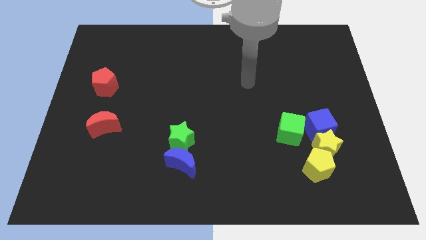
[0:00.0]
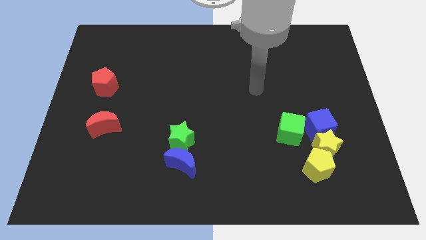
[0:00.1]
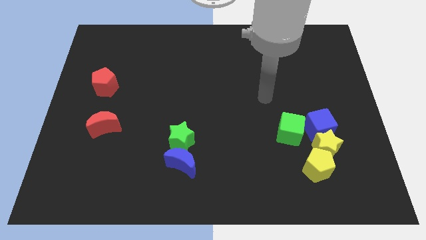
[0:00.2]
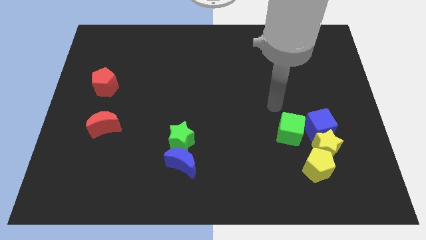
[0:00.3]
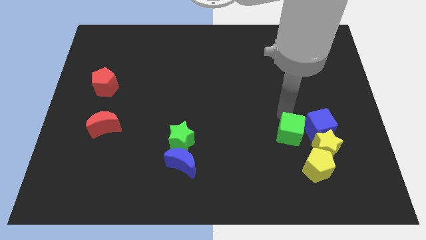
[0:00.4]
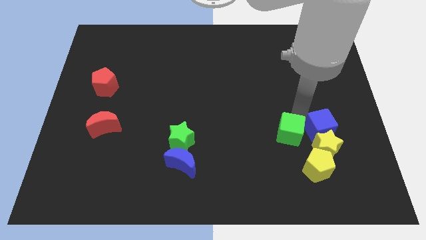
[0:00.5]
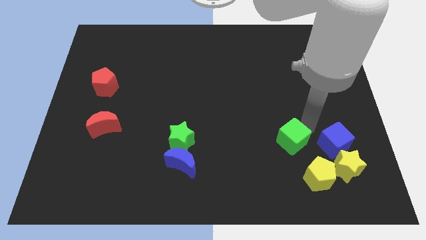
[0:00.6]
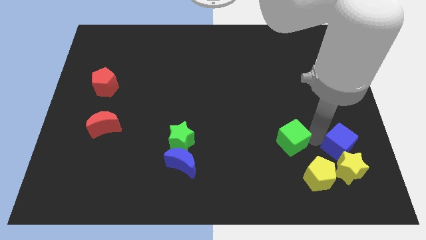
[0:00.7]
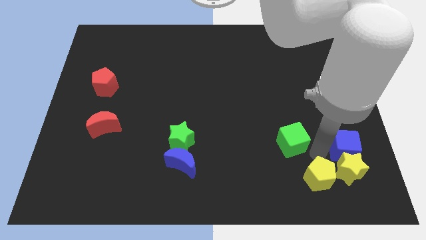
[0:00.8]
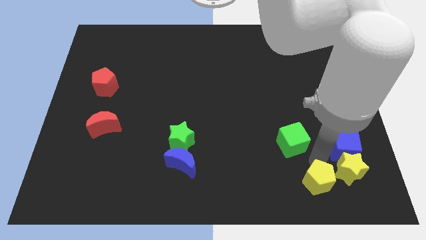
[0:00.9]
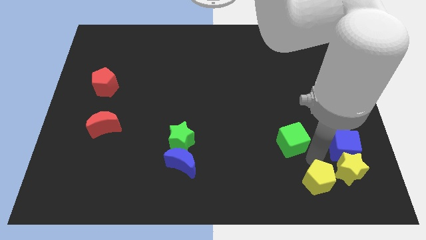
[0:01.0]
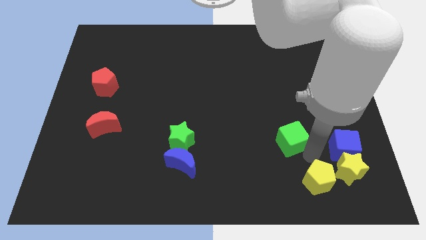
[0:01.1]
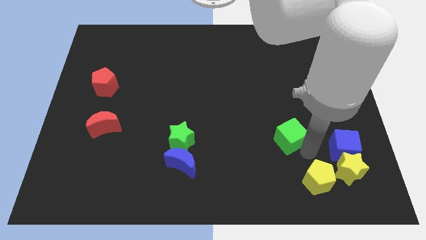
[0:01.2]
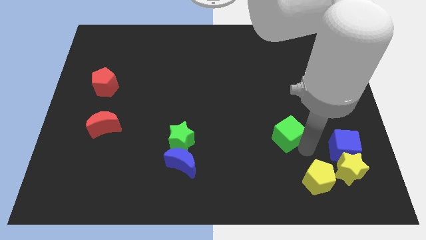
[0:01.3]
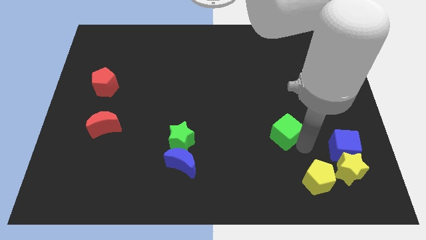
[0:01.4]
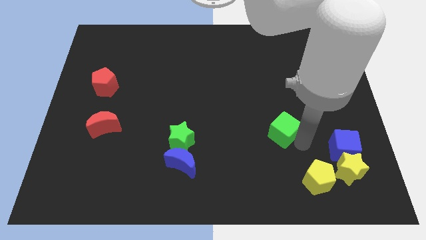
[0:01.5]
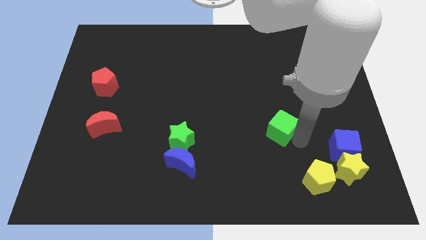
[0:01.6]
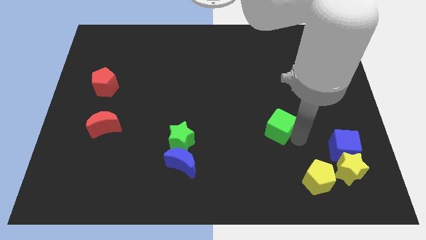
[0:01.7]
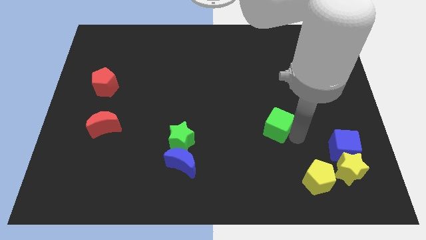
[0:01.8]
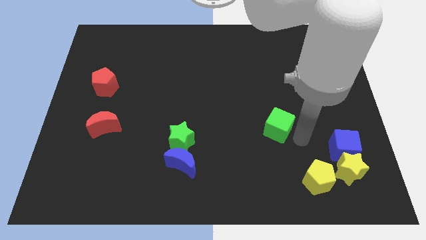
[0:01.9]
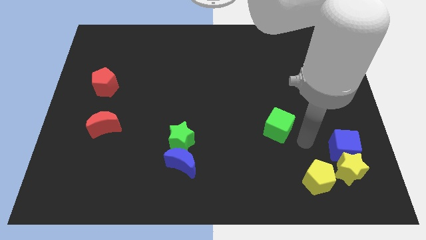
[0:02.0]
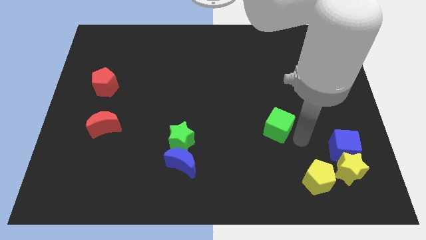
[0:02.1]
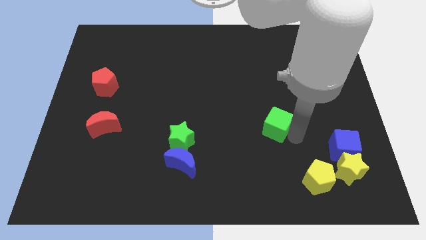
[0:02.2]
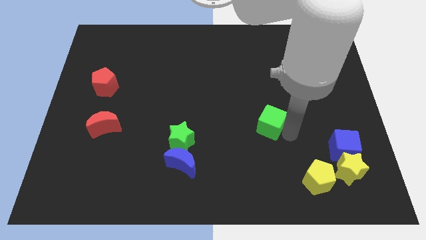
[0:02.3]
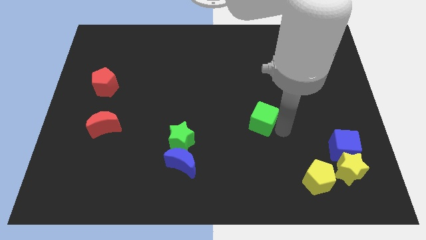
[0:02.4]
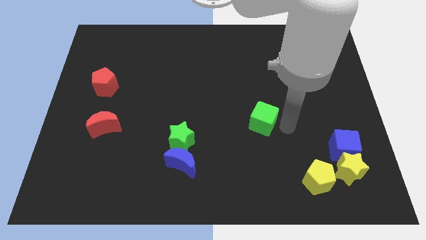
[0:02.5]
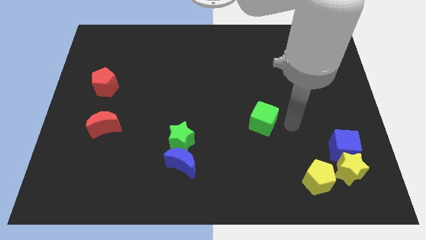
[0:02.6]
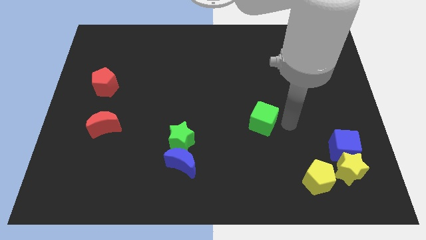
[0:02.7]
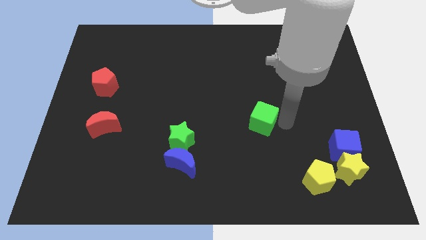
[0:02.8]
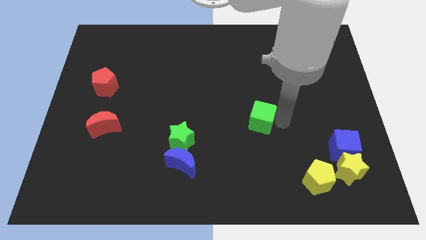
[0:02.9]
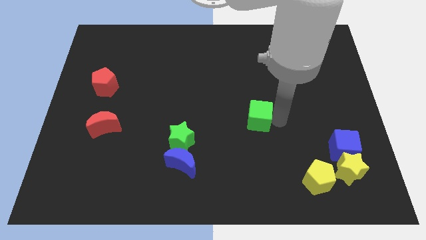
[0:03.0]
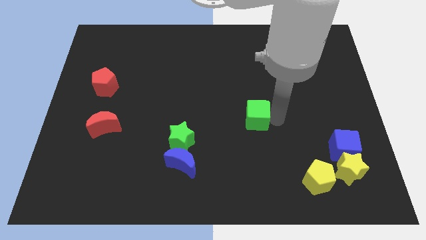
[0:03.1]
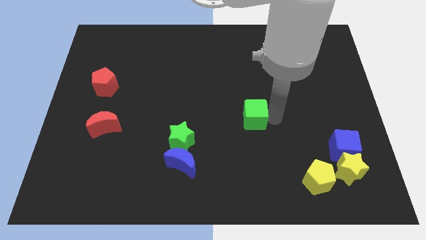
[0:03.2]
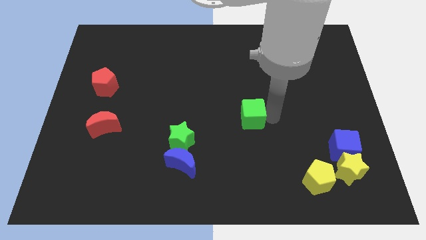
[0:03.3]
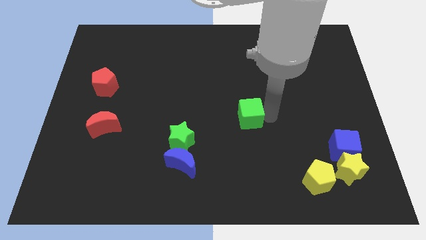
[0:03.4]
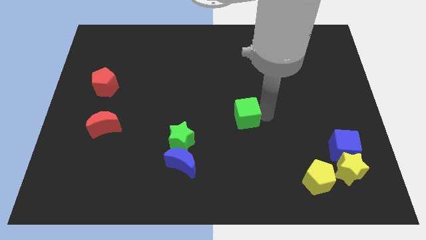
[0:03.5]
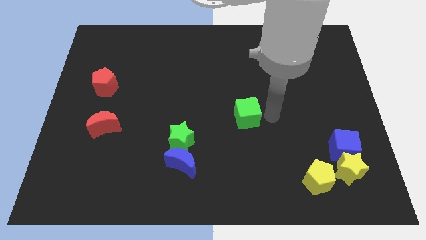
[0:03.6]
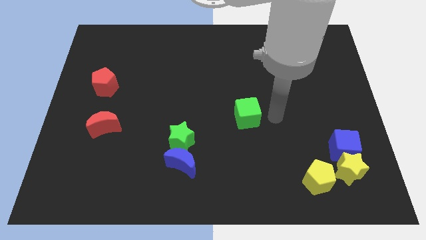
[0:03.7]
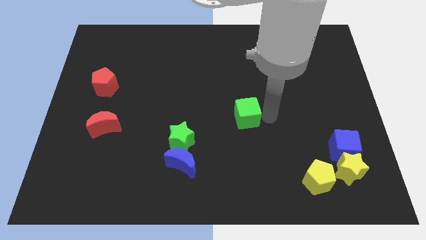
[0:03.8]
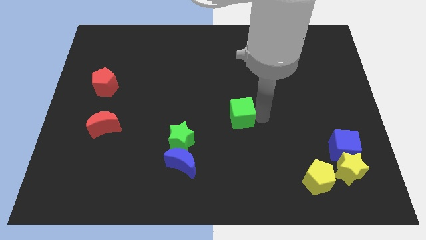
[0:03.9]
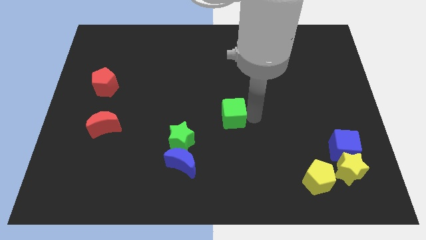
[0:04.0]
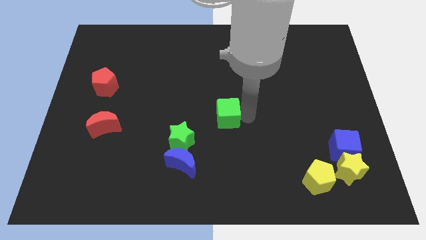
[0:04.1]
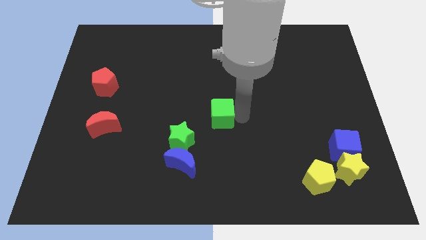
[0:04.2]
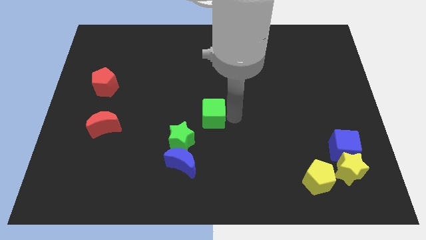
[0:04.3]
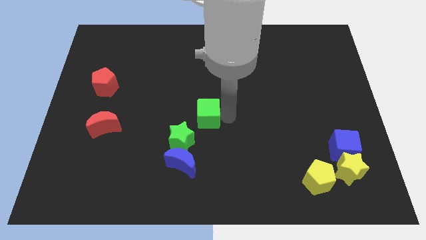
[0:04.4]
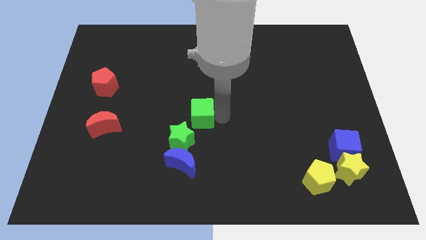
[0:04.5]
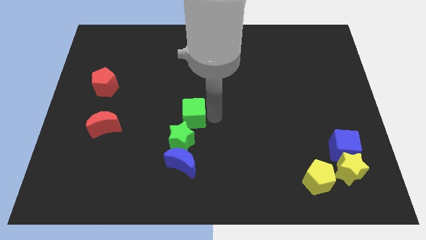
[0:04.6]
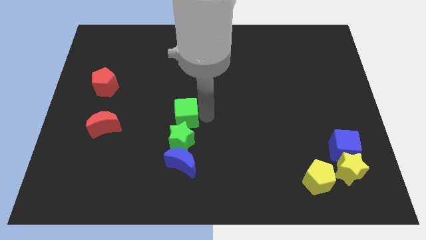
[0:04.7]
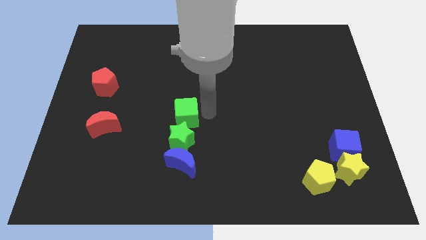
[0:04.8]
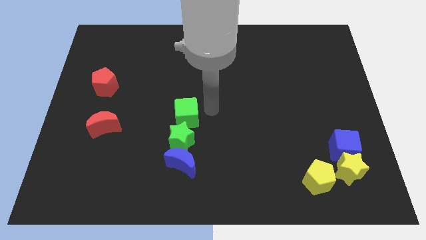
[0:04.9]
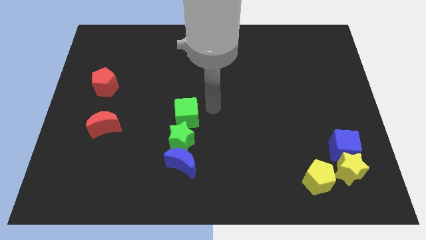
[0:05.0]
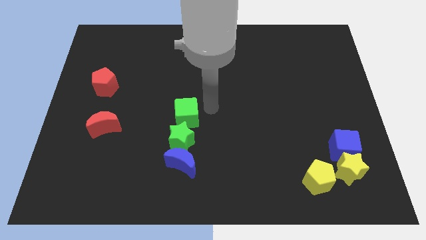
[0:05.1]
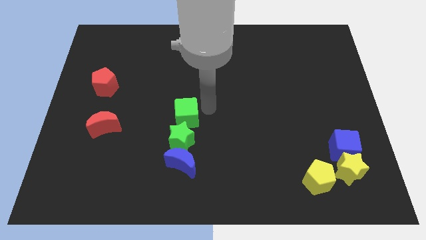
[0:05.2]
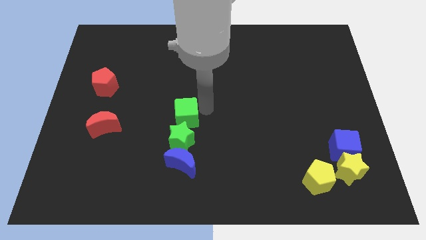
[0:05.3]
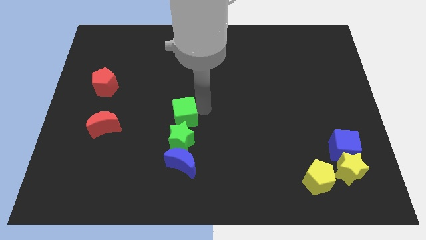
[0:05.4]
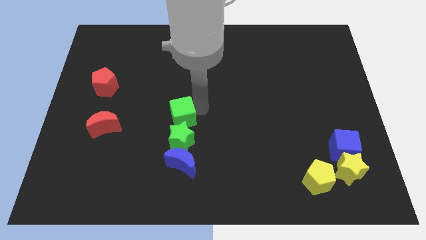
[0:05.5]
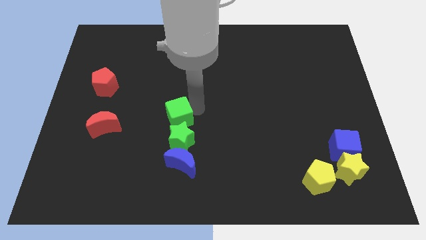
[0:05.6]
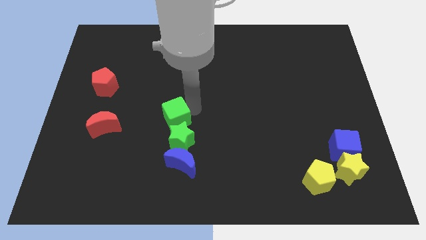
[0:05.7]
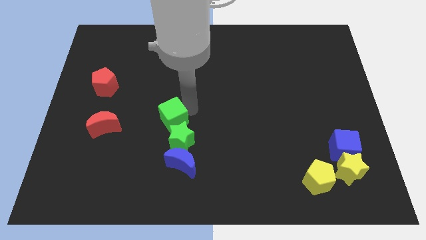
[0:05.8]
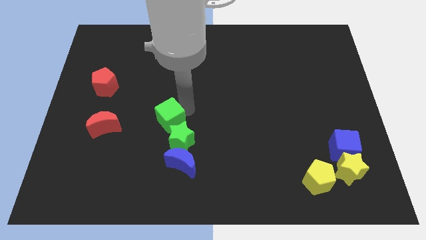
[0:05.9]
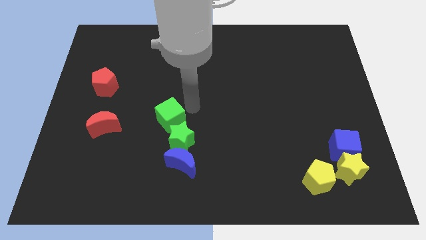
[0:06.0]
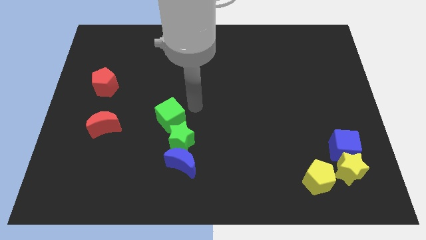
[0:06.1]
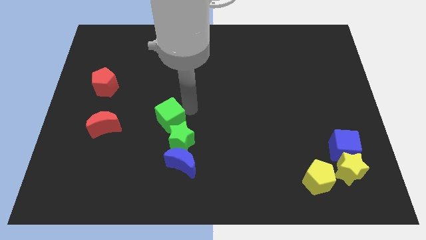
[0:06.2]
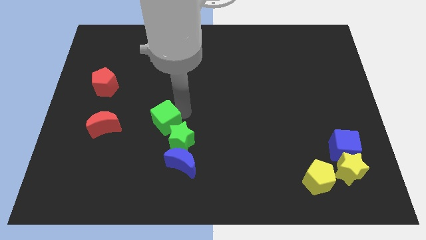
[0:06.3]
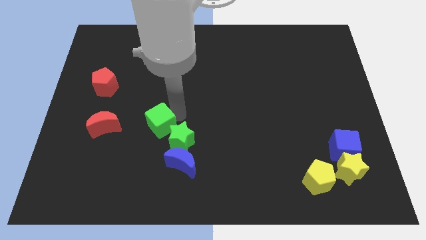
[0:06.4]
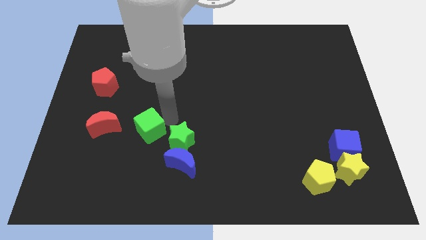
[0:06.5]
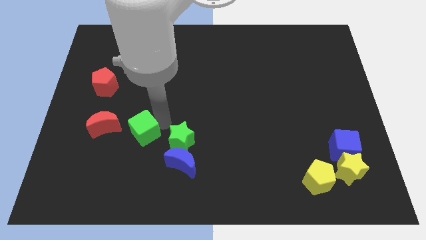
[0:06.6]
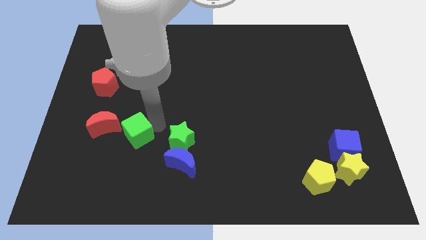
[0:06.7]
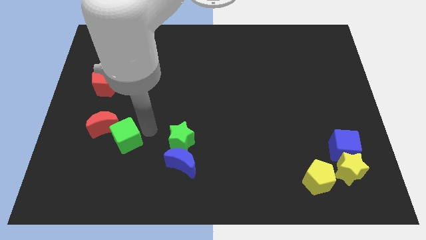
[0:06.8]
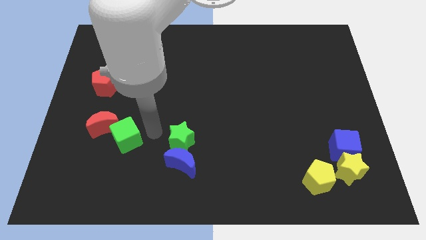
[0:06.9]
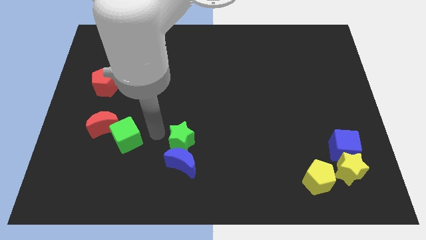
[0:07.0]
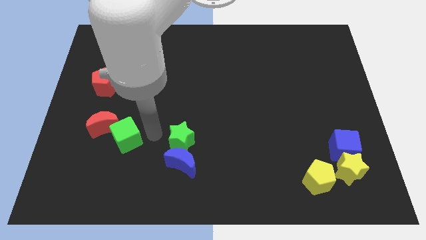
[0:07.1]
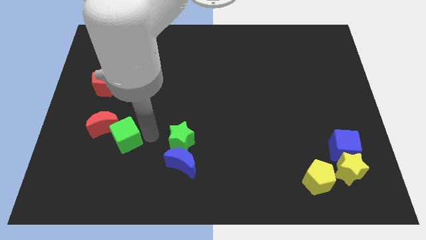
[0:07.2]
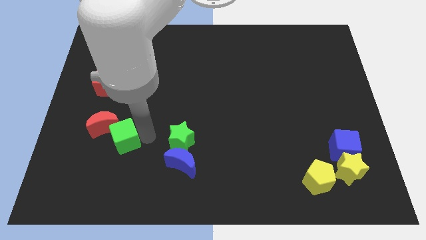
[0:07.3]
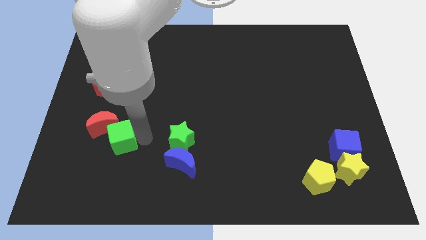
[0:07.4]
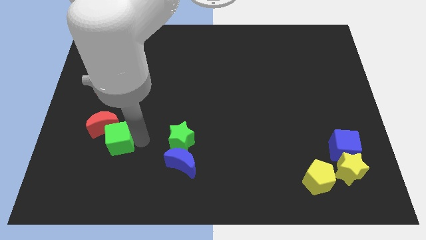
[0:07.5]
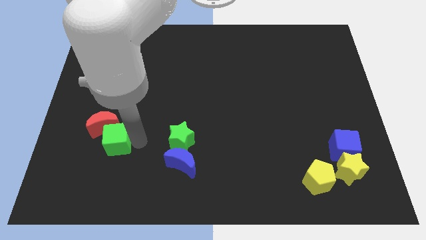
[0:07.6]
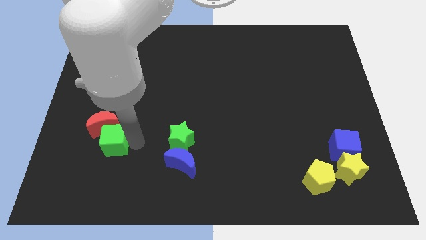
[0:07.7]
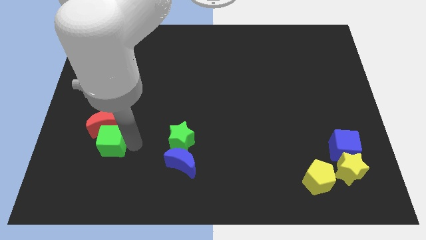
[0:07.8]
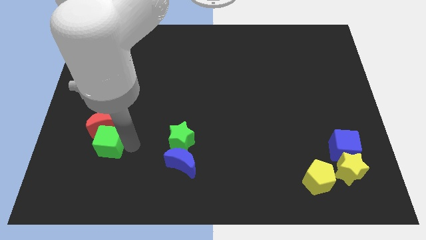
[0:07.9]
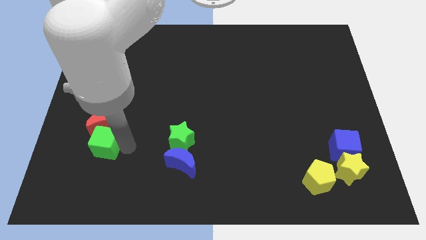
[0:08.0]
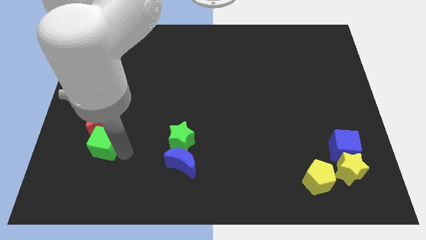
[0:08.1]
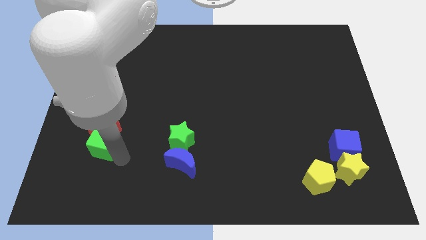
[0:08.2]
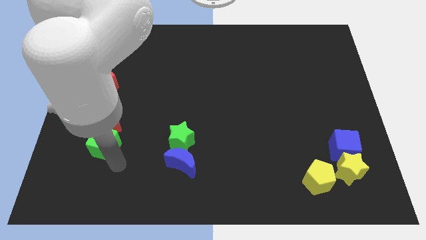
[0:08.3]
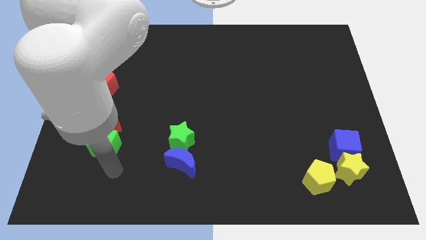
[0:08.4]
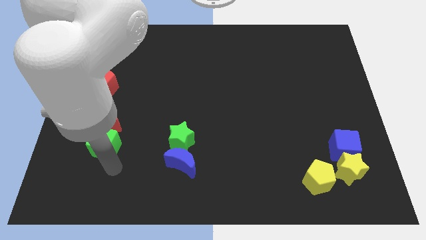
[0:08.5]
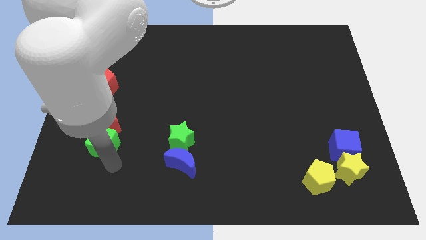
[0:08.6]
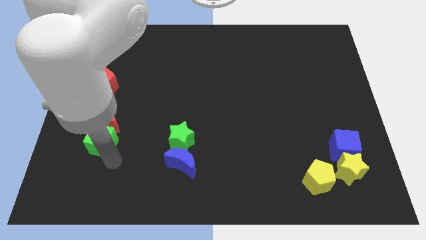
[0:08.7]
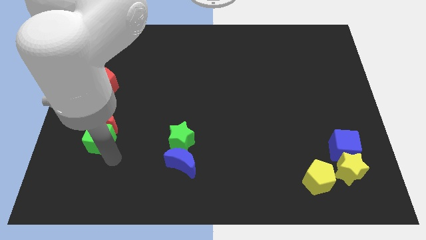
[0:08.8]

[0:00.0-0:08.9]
slide the green cube below the red pentagon
